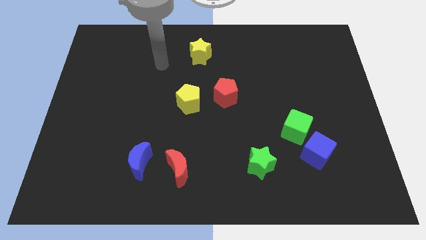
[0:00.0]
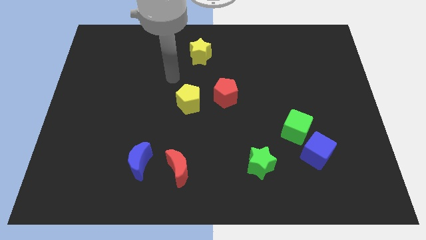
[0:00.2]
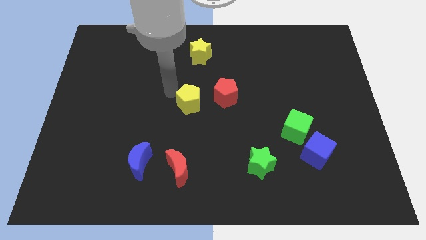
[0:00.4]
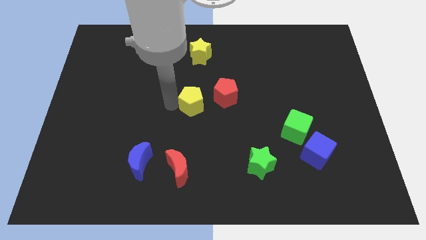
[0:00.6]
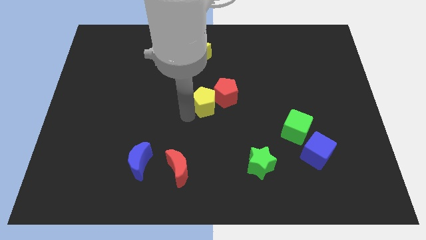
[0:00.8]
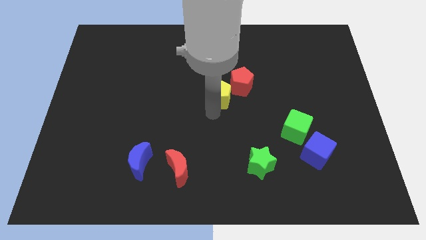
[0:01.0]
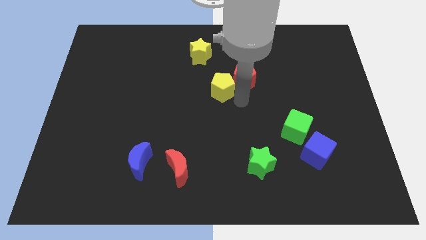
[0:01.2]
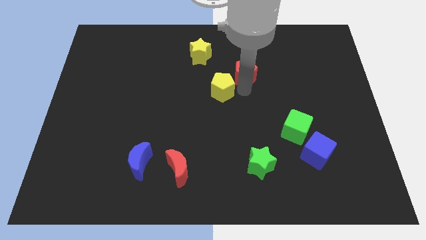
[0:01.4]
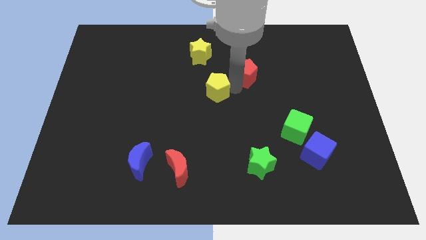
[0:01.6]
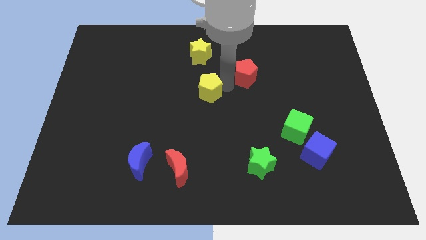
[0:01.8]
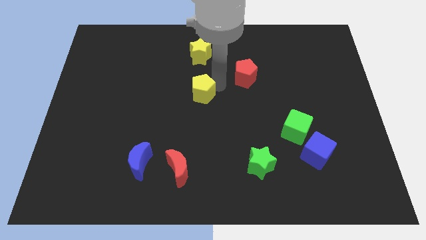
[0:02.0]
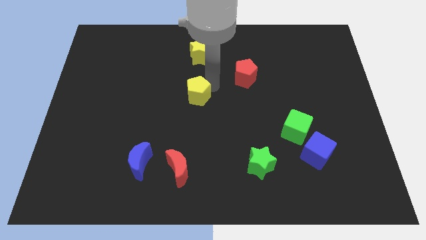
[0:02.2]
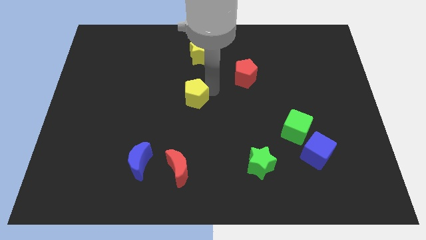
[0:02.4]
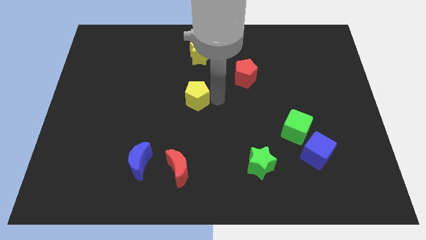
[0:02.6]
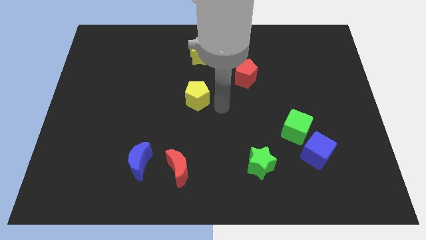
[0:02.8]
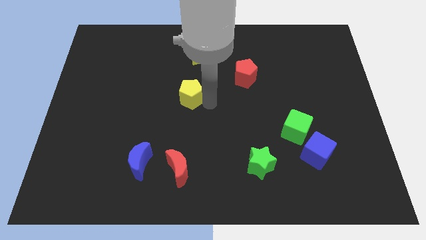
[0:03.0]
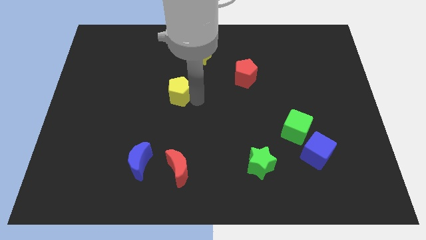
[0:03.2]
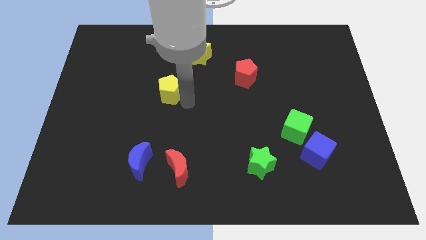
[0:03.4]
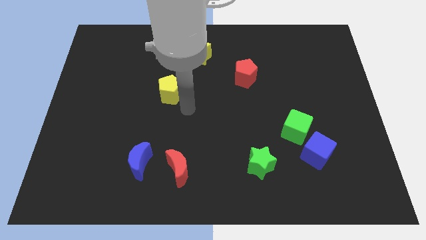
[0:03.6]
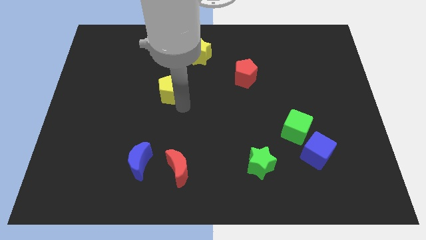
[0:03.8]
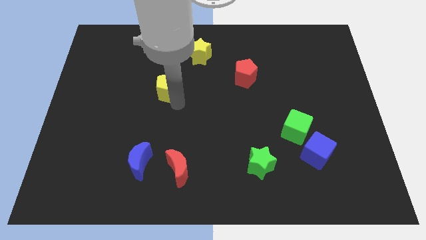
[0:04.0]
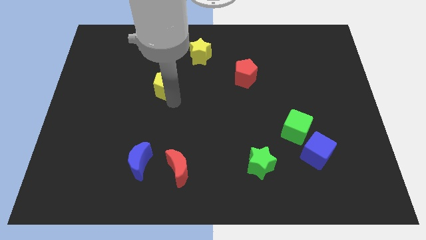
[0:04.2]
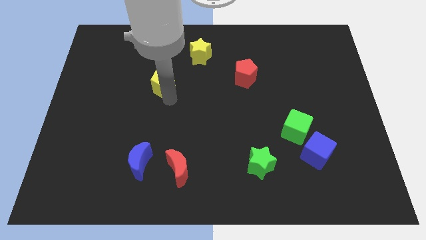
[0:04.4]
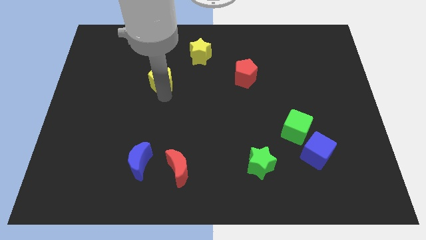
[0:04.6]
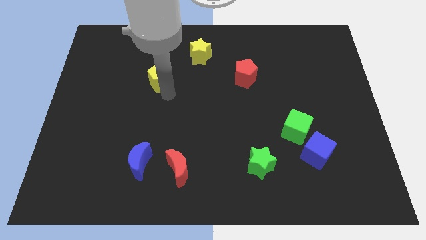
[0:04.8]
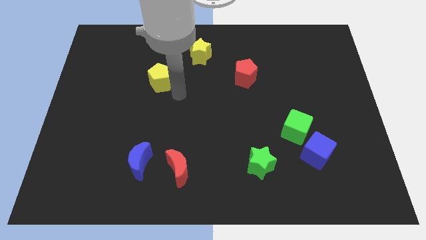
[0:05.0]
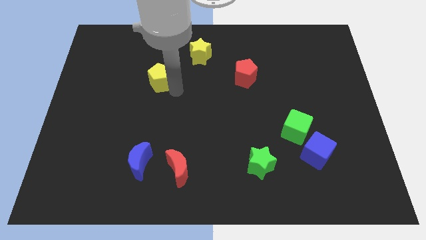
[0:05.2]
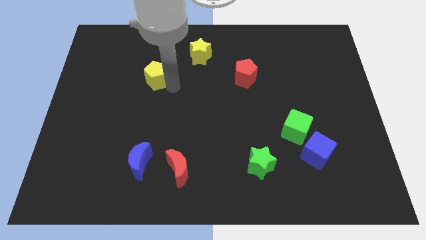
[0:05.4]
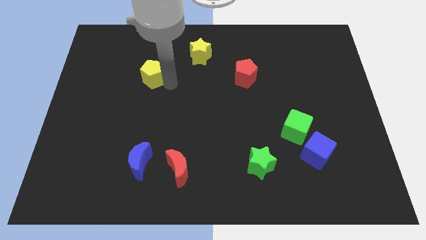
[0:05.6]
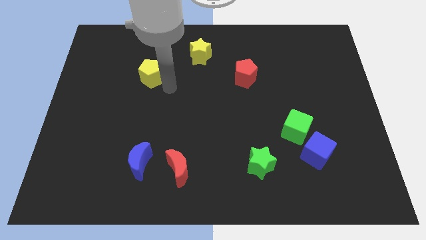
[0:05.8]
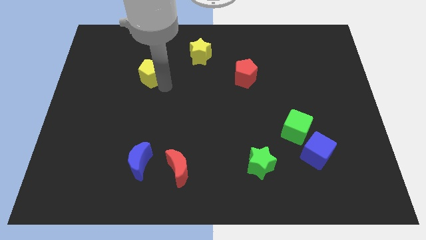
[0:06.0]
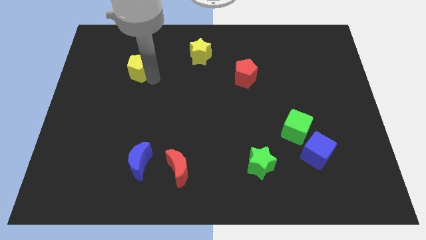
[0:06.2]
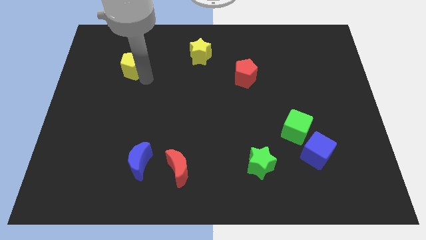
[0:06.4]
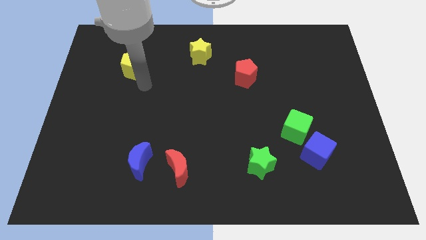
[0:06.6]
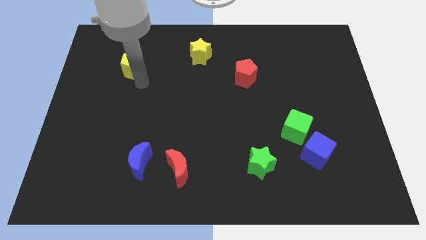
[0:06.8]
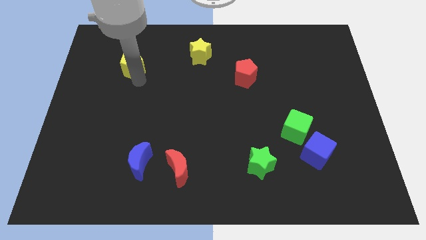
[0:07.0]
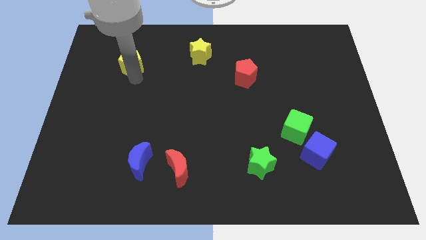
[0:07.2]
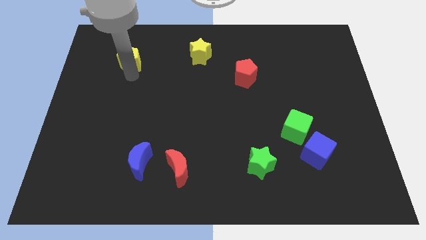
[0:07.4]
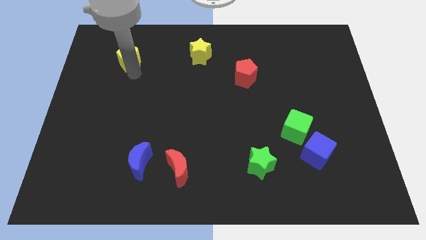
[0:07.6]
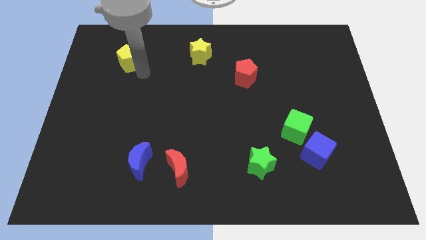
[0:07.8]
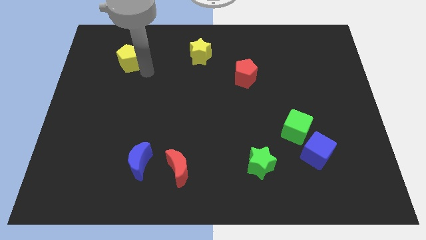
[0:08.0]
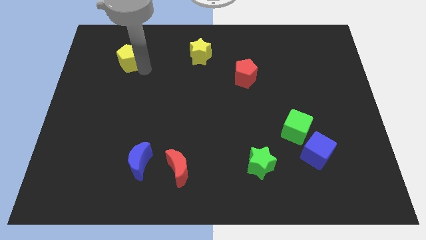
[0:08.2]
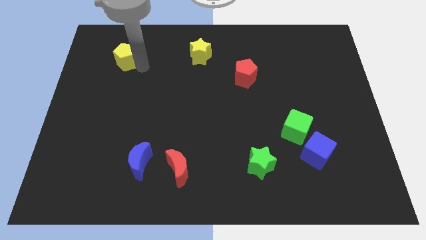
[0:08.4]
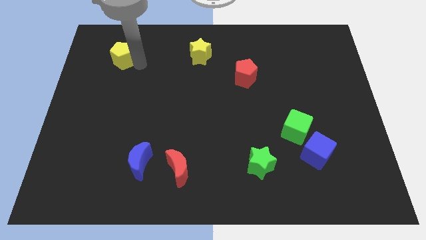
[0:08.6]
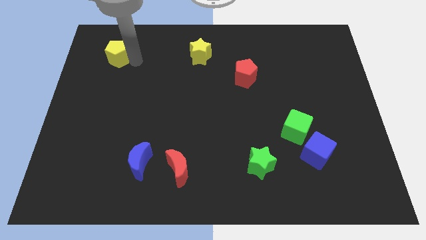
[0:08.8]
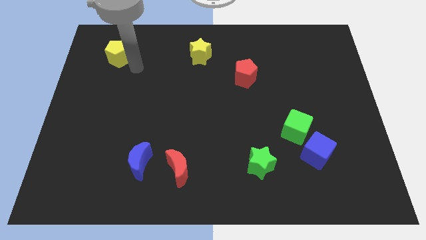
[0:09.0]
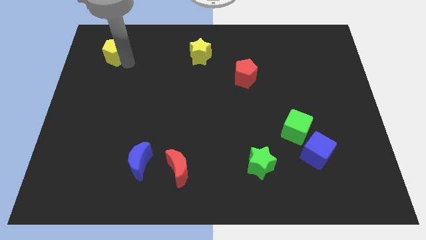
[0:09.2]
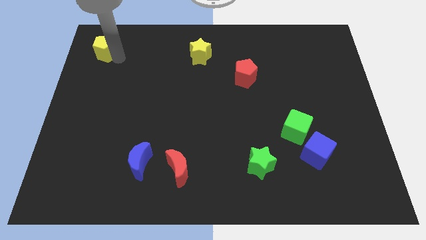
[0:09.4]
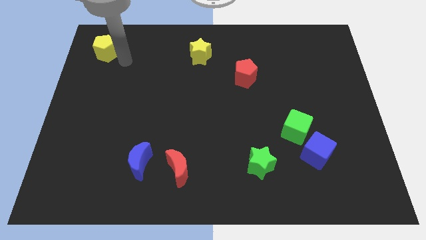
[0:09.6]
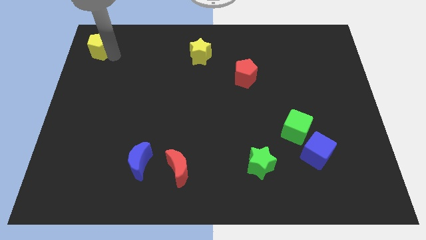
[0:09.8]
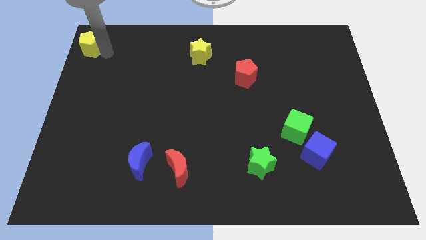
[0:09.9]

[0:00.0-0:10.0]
push the yellow pentagon to the upper left corner

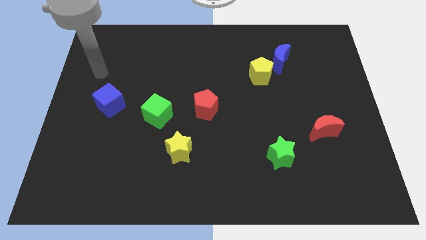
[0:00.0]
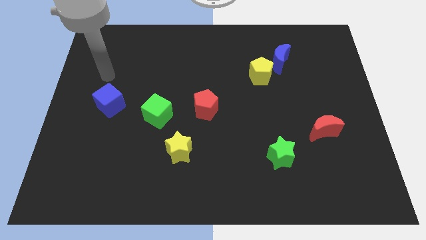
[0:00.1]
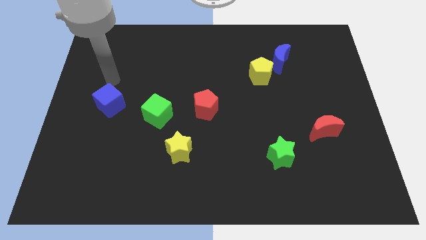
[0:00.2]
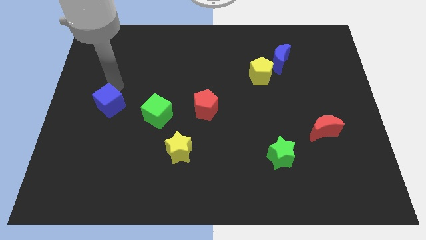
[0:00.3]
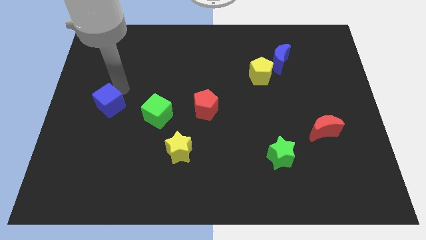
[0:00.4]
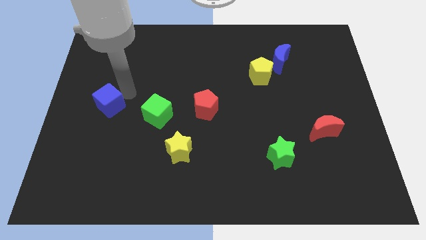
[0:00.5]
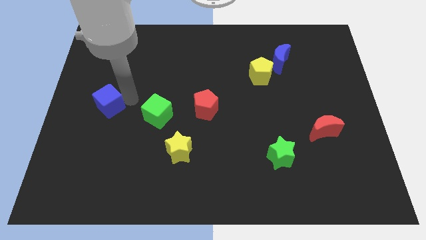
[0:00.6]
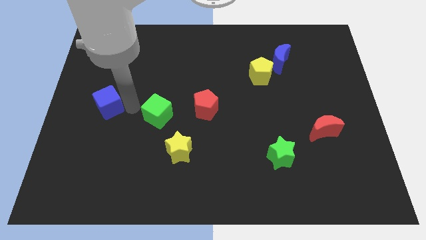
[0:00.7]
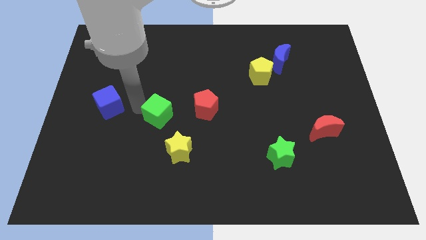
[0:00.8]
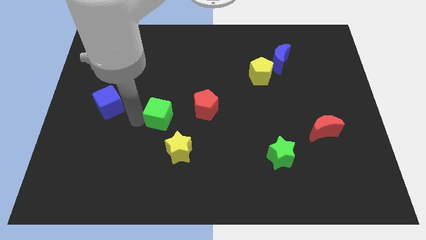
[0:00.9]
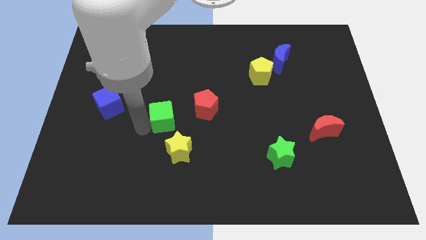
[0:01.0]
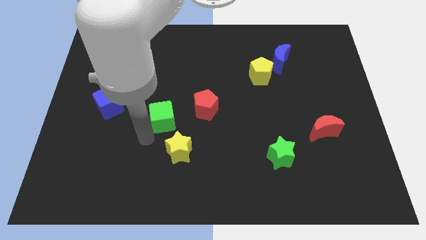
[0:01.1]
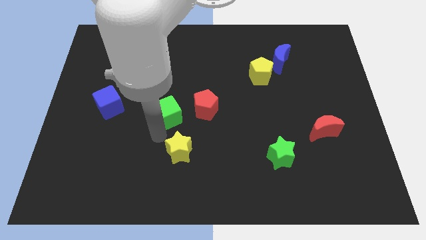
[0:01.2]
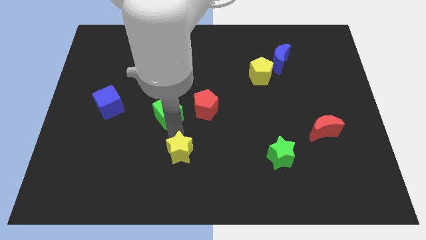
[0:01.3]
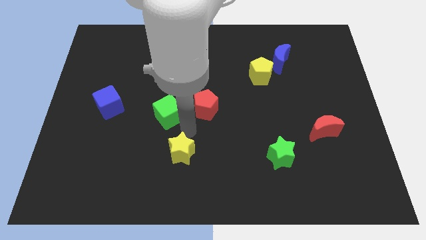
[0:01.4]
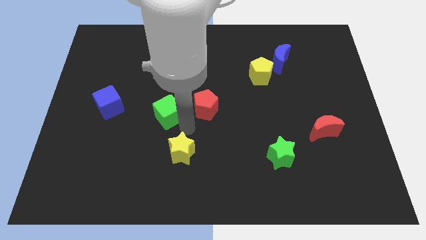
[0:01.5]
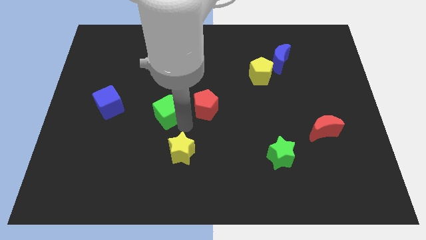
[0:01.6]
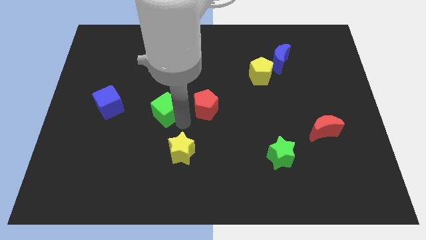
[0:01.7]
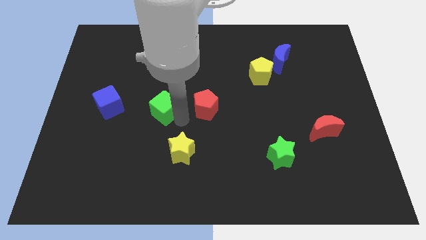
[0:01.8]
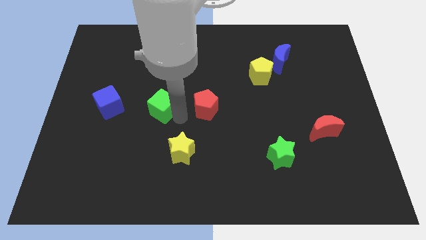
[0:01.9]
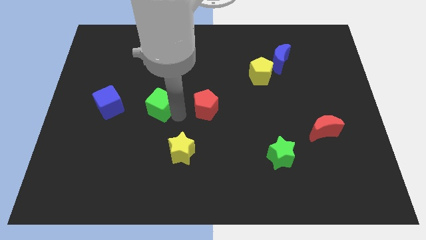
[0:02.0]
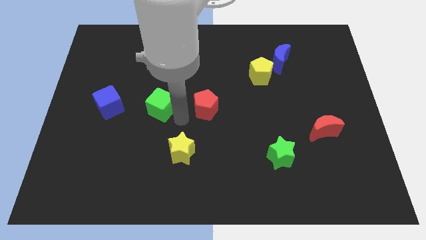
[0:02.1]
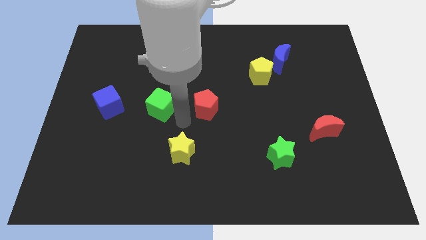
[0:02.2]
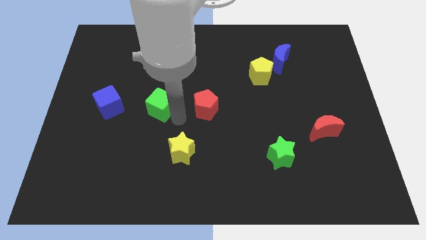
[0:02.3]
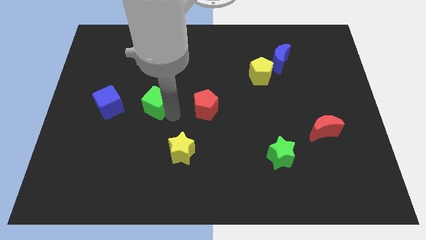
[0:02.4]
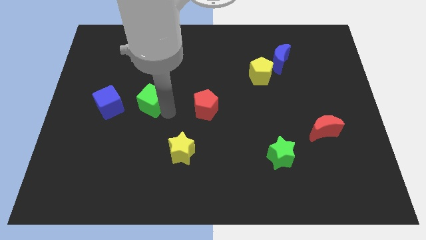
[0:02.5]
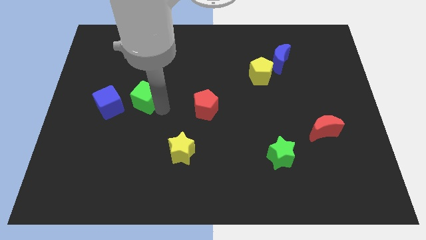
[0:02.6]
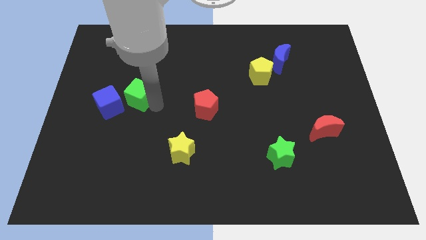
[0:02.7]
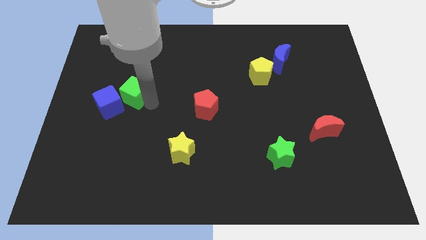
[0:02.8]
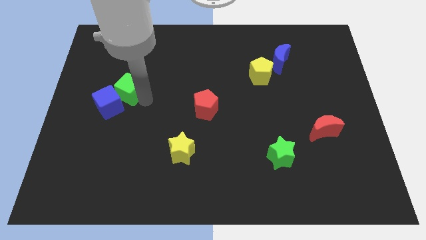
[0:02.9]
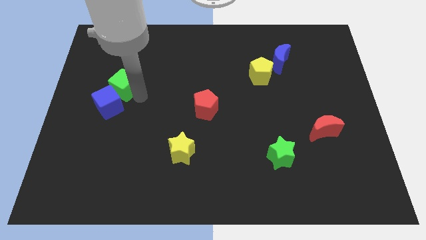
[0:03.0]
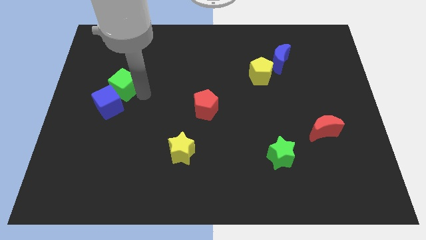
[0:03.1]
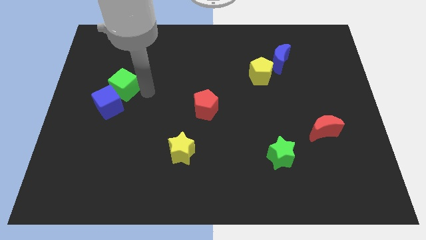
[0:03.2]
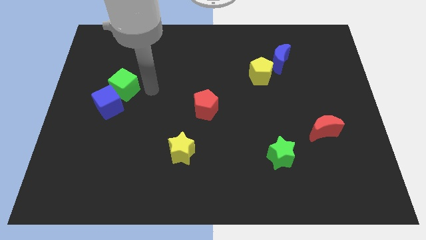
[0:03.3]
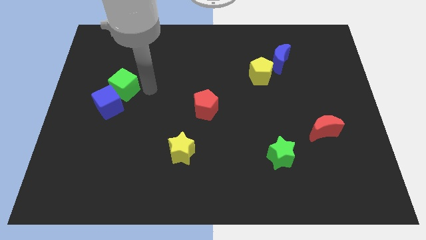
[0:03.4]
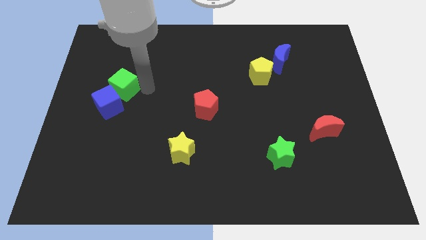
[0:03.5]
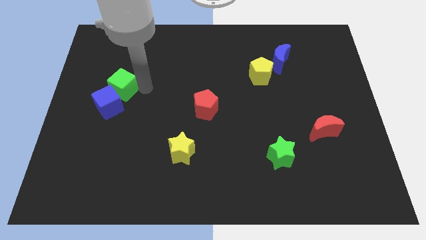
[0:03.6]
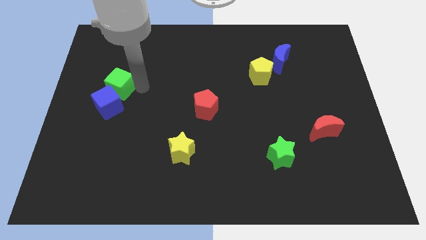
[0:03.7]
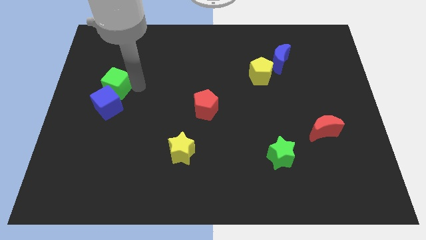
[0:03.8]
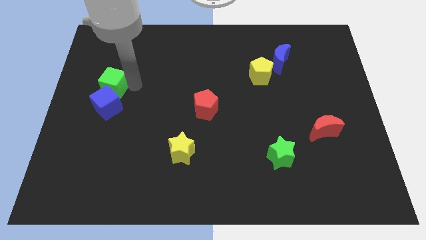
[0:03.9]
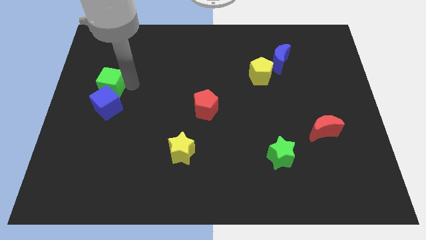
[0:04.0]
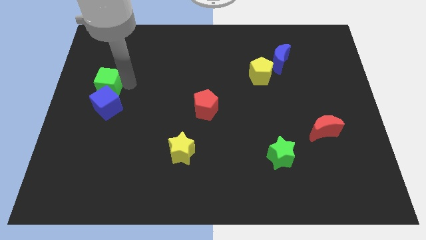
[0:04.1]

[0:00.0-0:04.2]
put the green cube to the center left
